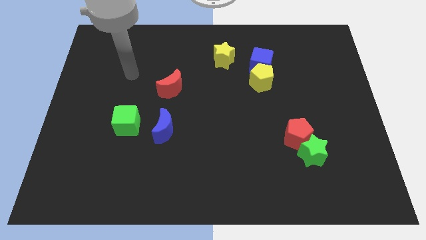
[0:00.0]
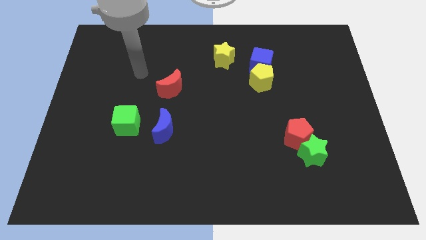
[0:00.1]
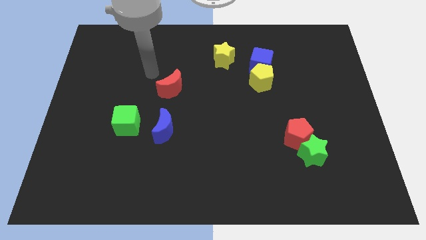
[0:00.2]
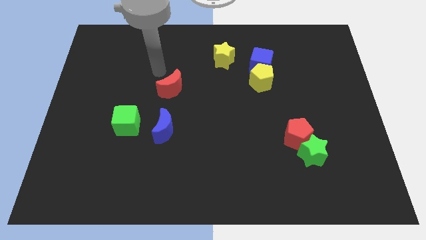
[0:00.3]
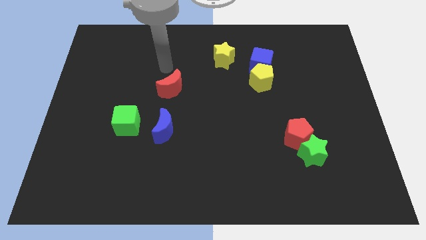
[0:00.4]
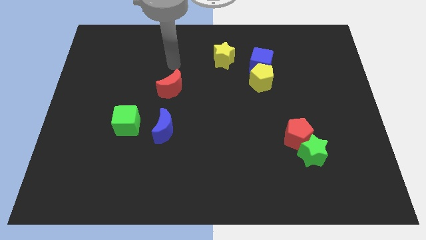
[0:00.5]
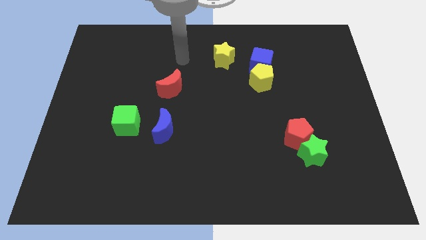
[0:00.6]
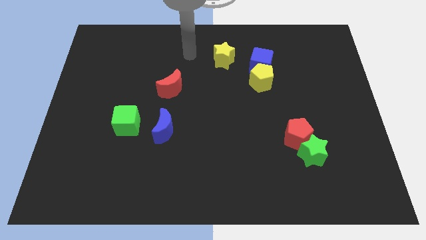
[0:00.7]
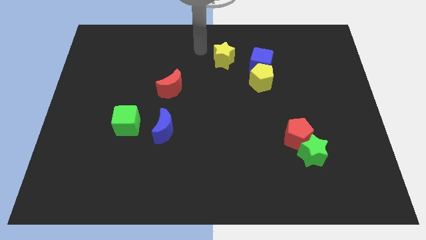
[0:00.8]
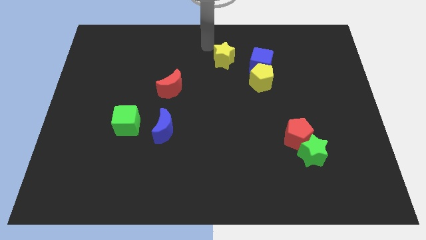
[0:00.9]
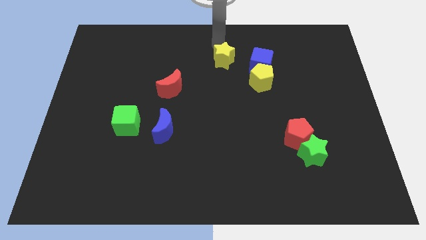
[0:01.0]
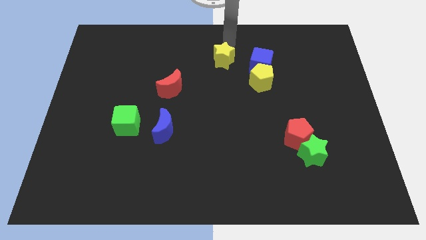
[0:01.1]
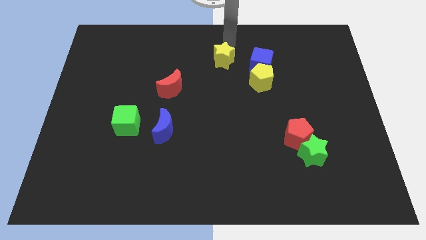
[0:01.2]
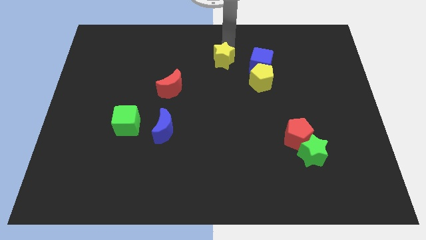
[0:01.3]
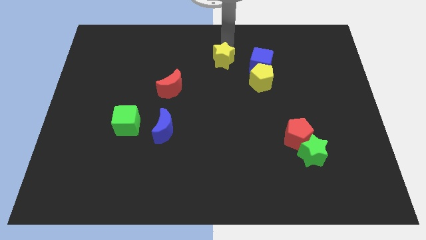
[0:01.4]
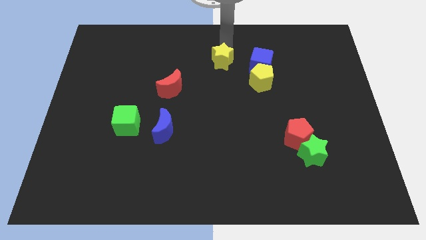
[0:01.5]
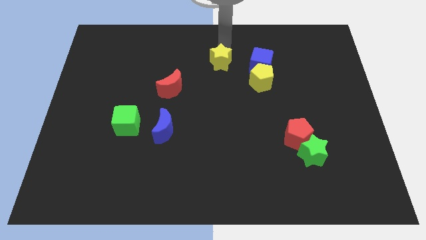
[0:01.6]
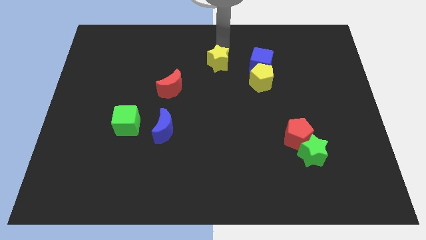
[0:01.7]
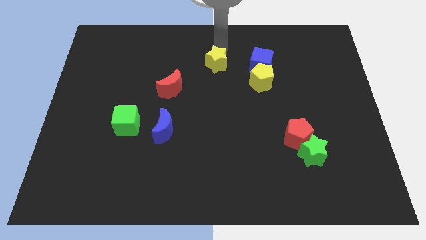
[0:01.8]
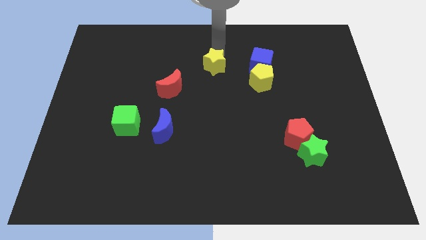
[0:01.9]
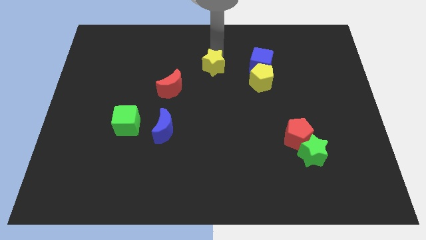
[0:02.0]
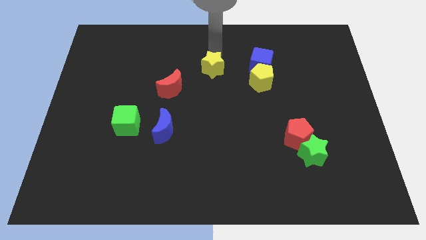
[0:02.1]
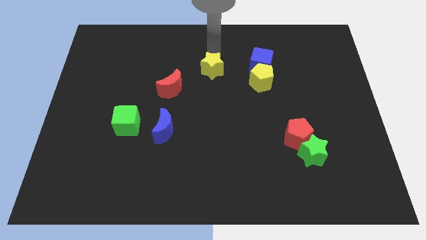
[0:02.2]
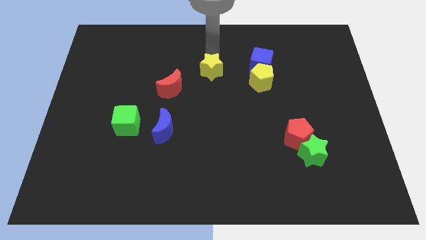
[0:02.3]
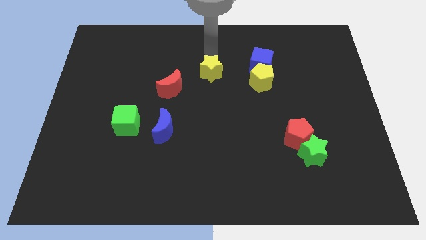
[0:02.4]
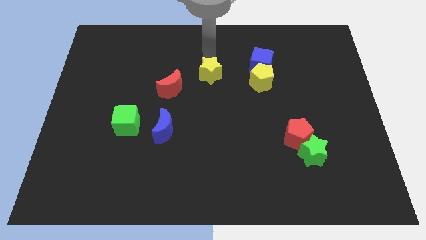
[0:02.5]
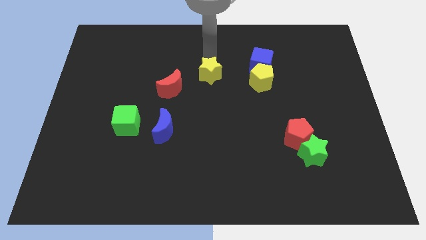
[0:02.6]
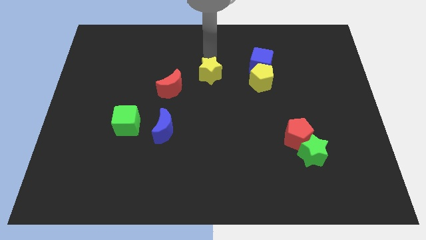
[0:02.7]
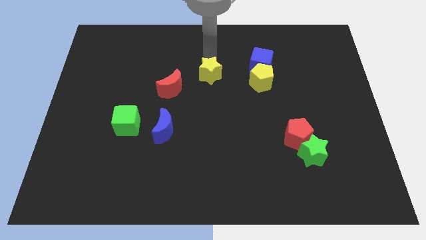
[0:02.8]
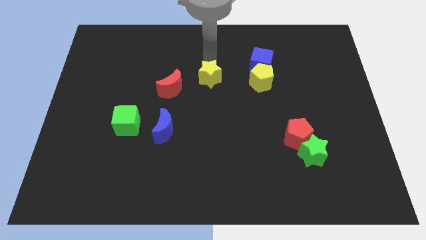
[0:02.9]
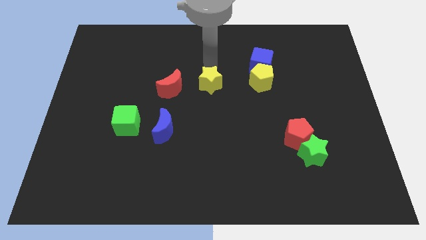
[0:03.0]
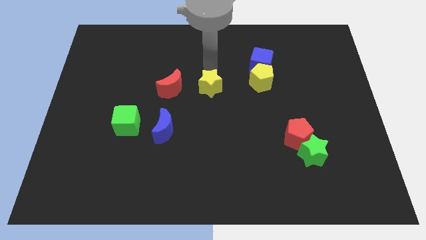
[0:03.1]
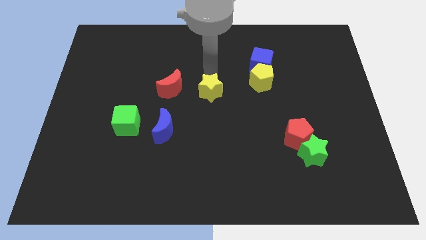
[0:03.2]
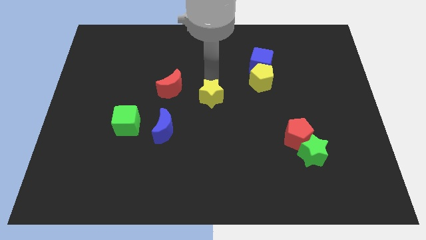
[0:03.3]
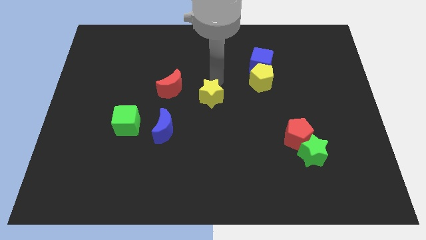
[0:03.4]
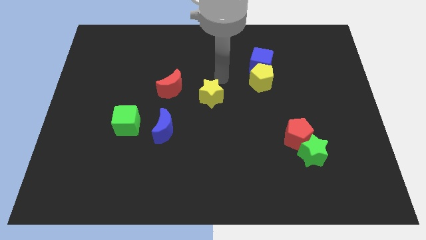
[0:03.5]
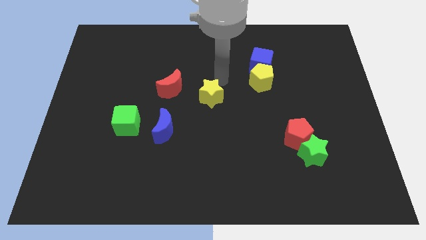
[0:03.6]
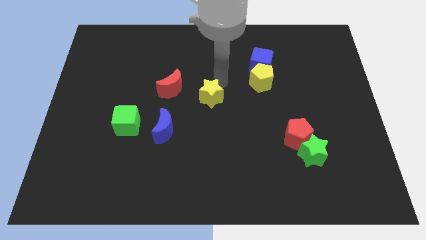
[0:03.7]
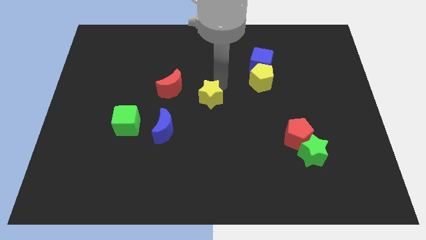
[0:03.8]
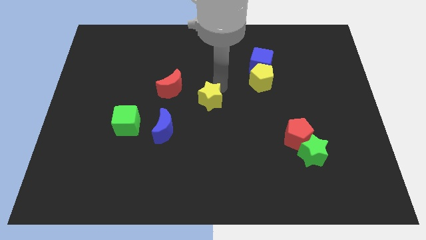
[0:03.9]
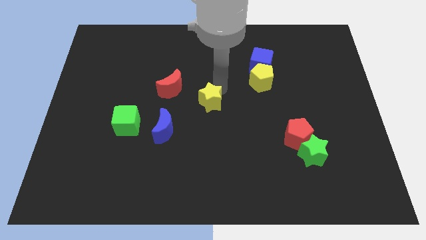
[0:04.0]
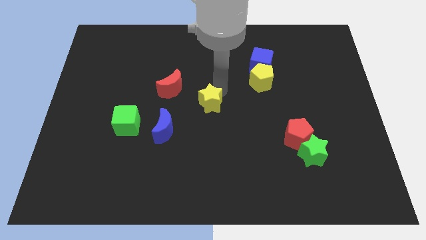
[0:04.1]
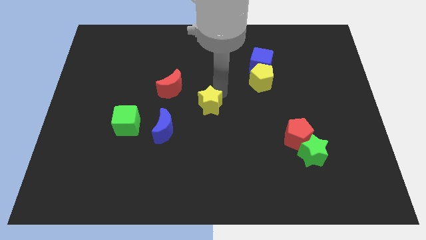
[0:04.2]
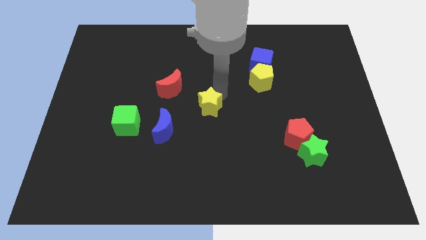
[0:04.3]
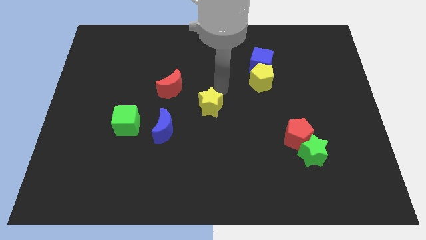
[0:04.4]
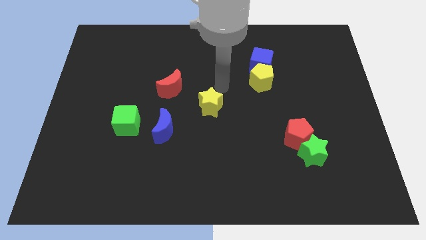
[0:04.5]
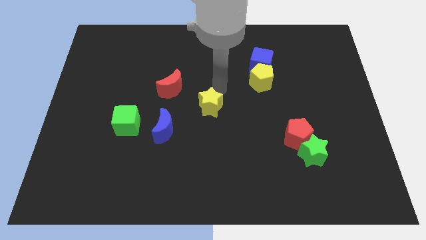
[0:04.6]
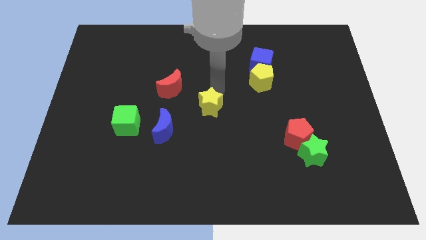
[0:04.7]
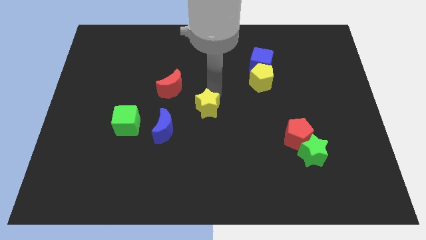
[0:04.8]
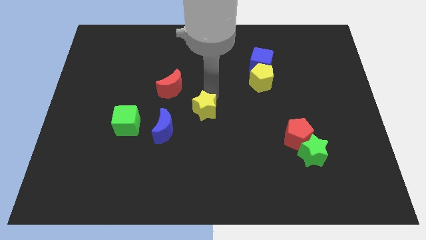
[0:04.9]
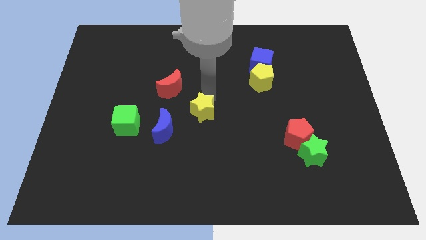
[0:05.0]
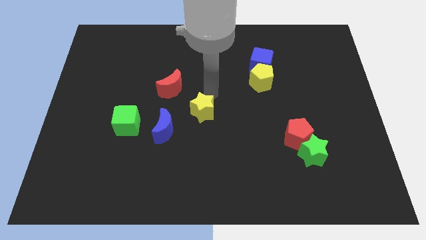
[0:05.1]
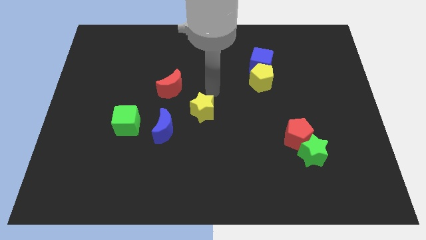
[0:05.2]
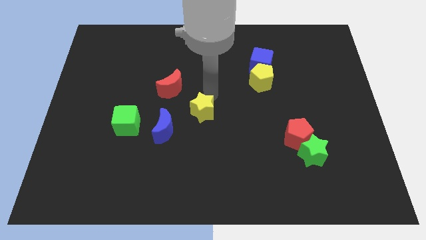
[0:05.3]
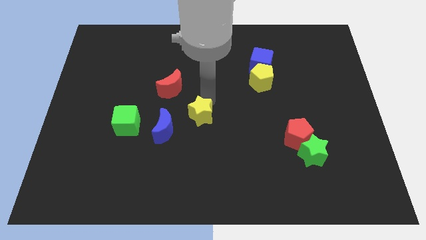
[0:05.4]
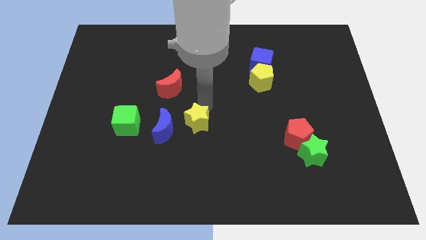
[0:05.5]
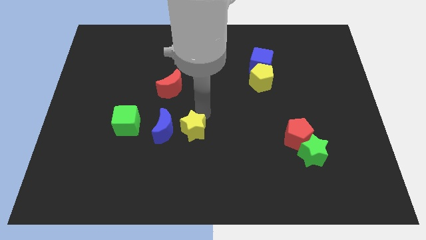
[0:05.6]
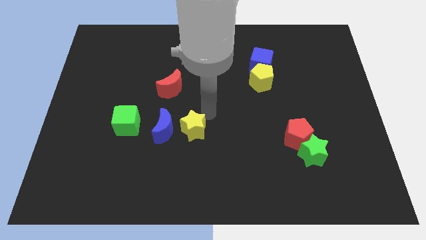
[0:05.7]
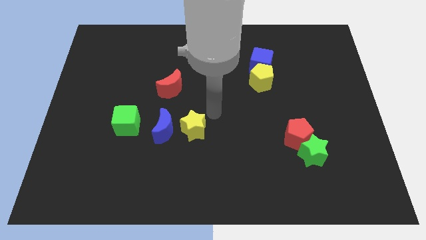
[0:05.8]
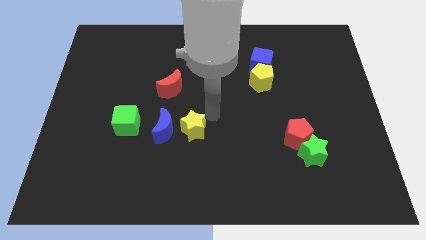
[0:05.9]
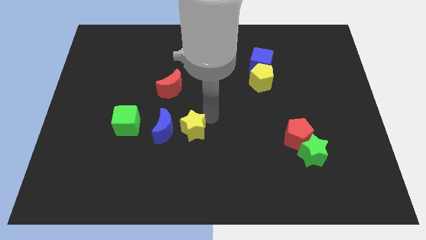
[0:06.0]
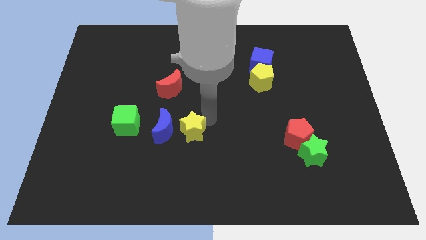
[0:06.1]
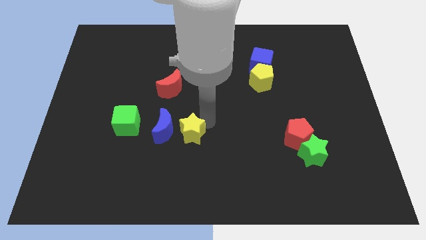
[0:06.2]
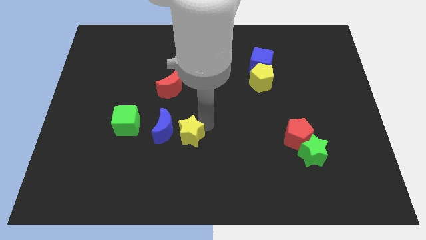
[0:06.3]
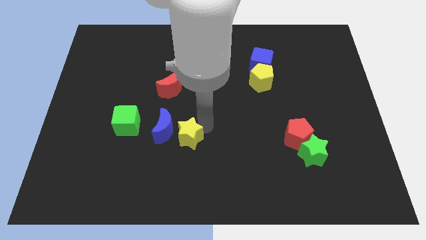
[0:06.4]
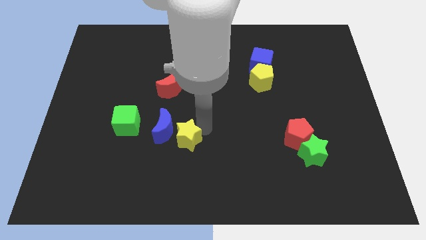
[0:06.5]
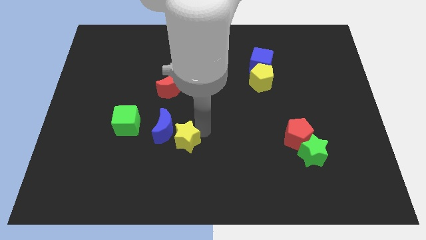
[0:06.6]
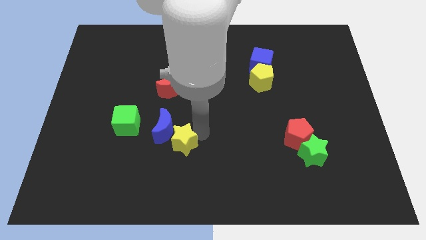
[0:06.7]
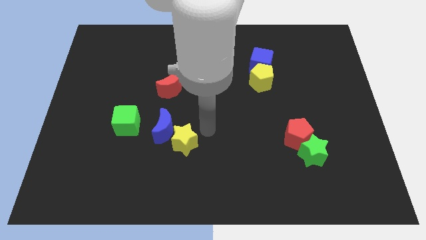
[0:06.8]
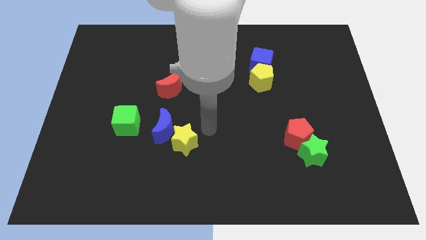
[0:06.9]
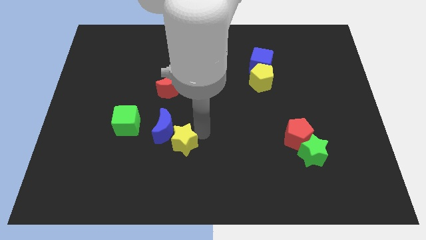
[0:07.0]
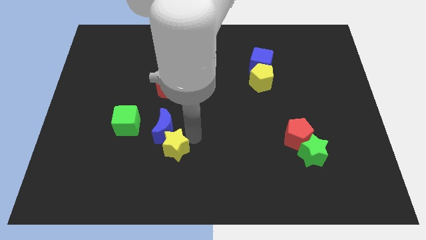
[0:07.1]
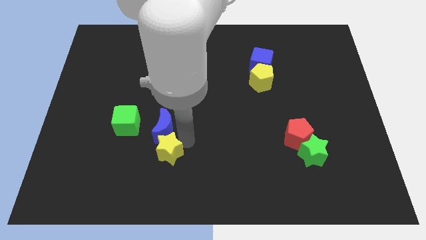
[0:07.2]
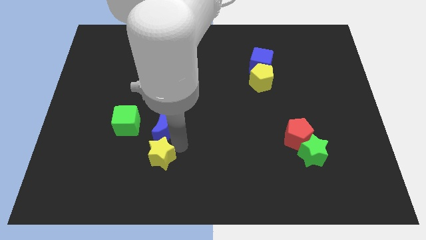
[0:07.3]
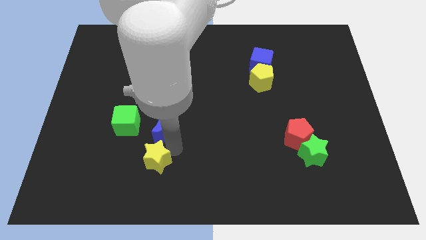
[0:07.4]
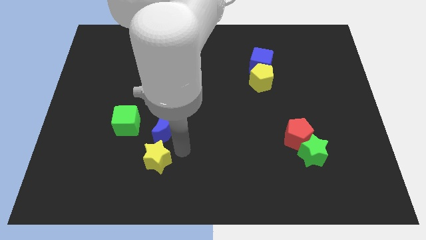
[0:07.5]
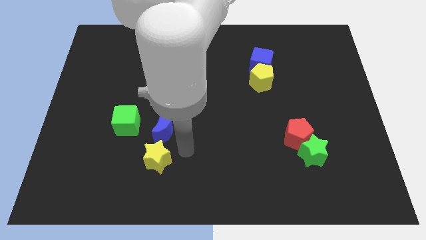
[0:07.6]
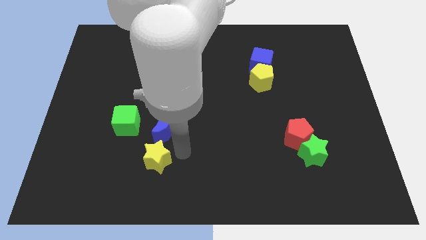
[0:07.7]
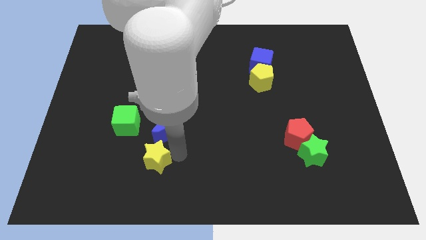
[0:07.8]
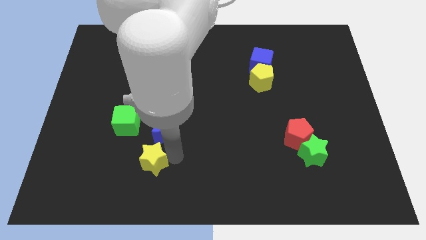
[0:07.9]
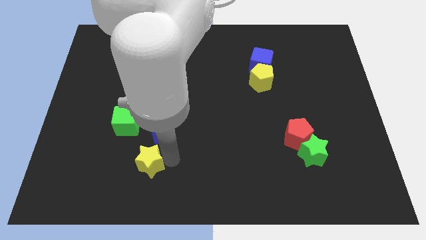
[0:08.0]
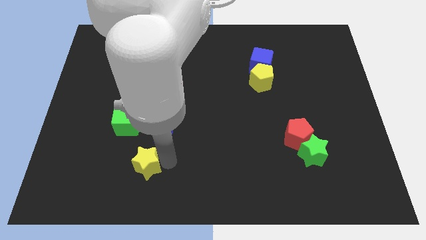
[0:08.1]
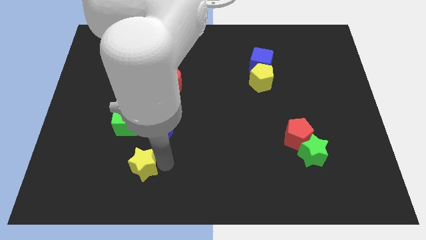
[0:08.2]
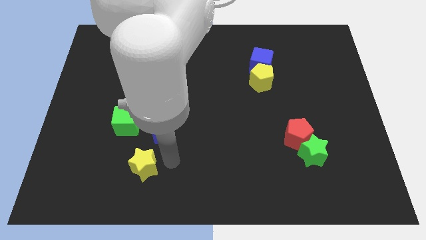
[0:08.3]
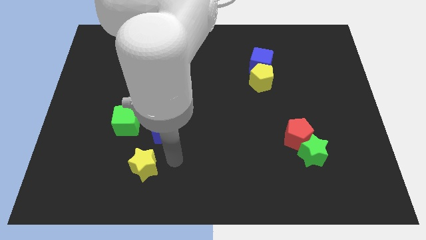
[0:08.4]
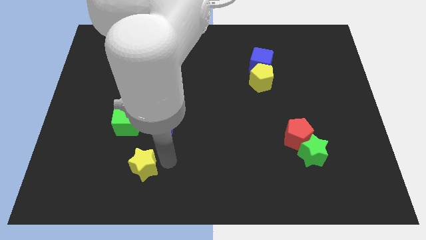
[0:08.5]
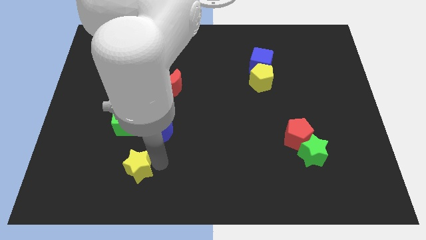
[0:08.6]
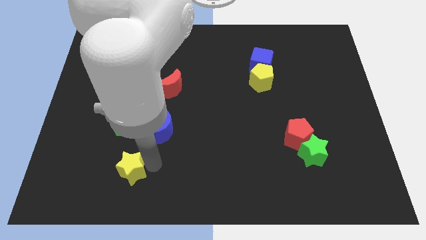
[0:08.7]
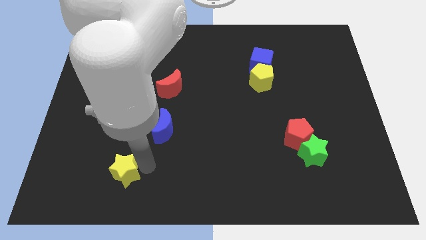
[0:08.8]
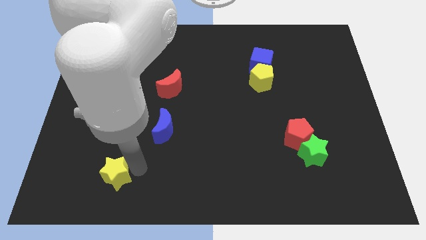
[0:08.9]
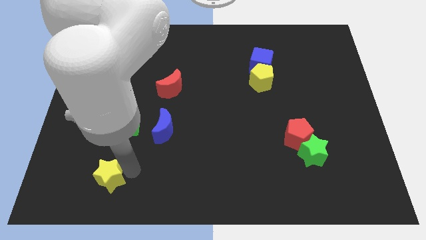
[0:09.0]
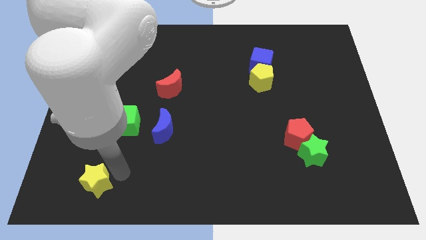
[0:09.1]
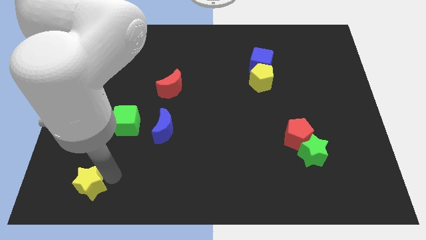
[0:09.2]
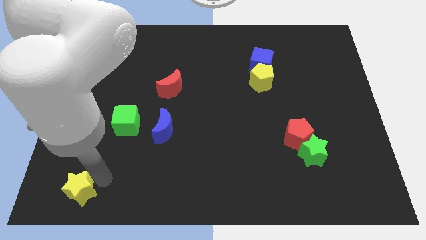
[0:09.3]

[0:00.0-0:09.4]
slide the yellow star to the lower left corner
